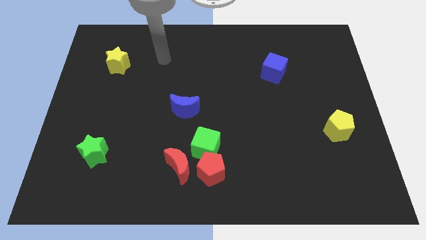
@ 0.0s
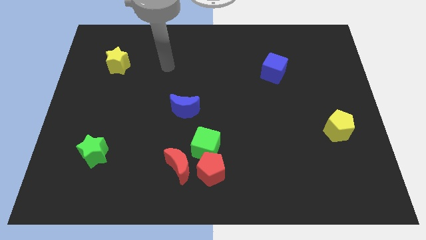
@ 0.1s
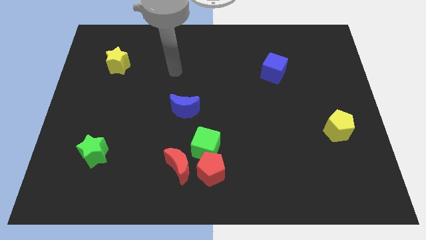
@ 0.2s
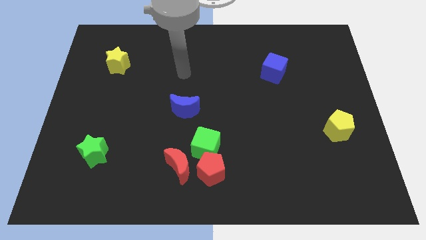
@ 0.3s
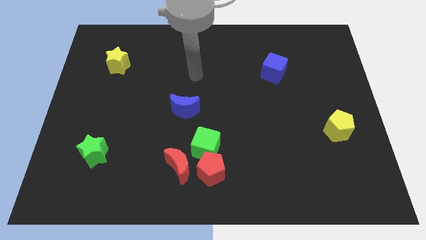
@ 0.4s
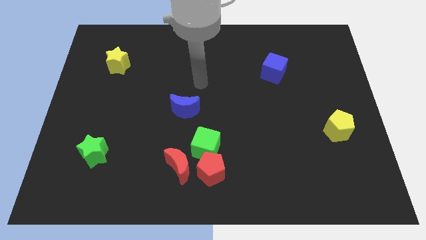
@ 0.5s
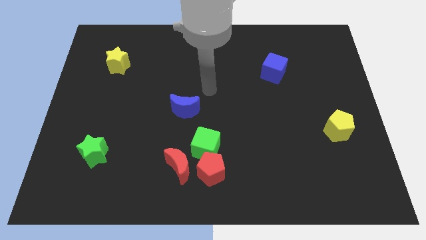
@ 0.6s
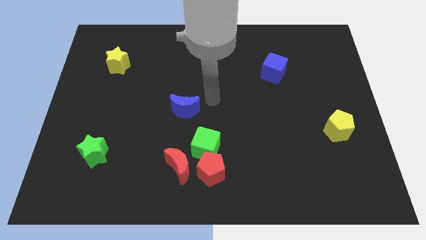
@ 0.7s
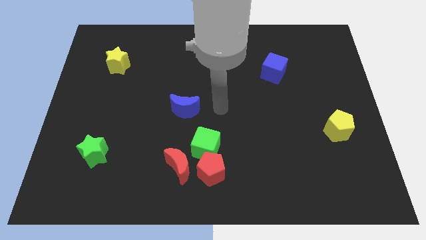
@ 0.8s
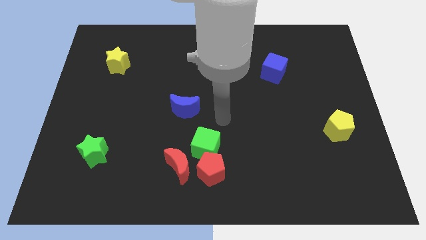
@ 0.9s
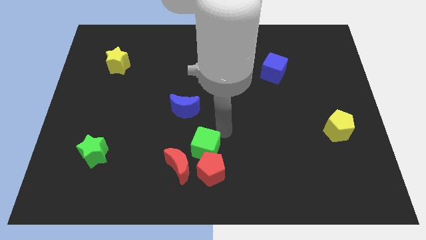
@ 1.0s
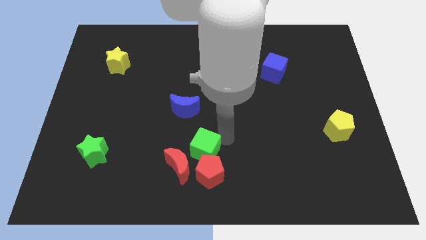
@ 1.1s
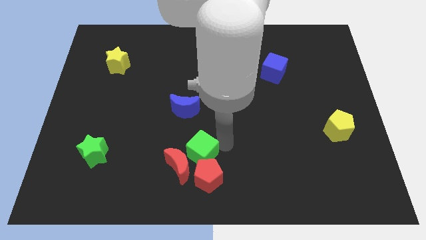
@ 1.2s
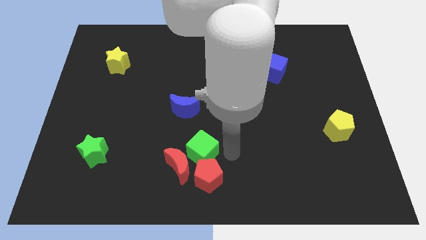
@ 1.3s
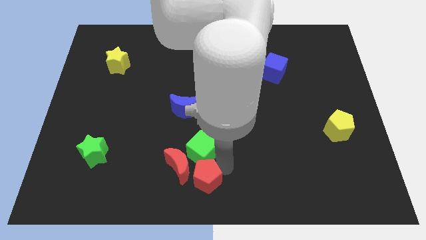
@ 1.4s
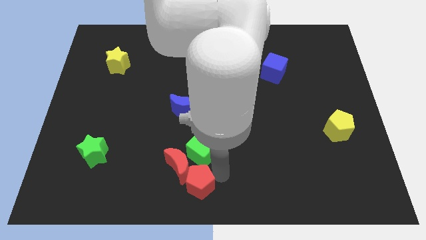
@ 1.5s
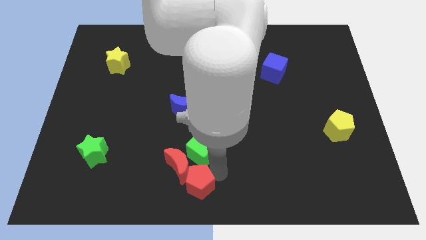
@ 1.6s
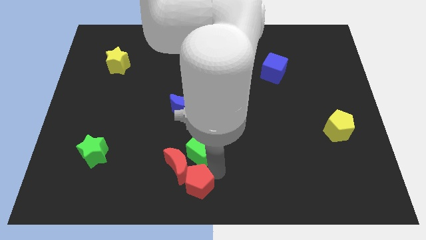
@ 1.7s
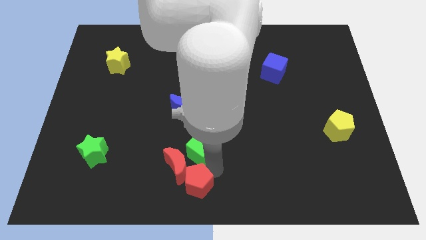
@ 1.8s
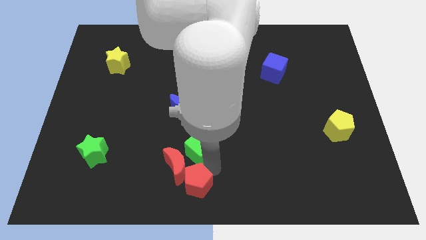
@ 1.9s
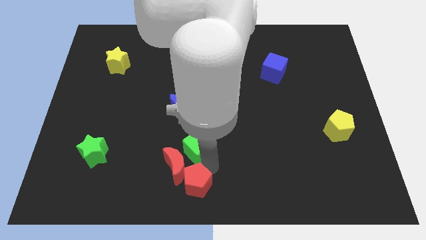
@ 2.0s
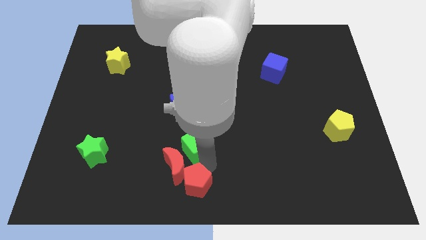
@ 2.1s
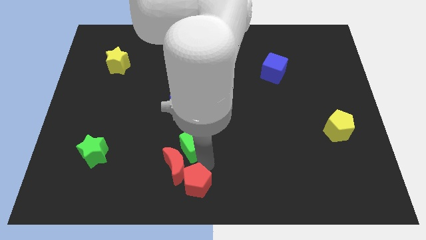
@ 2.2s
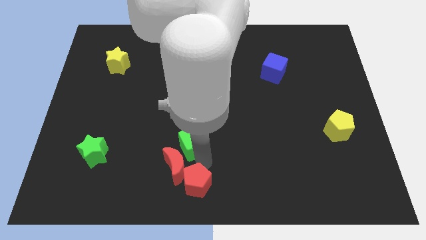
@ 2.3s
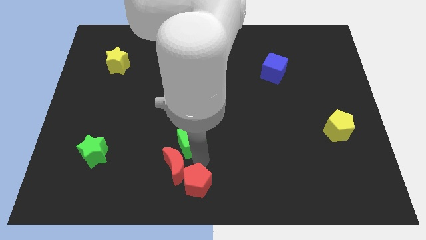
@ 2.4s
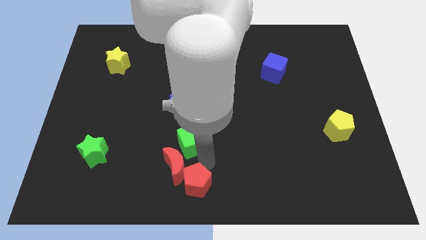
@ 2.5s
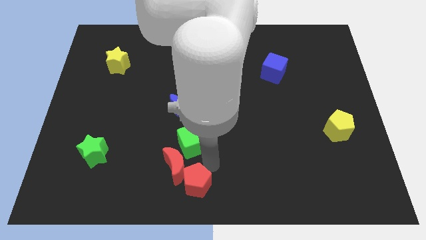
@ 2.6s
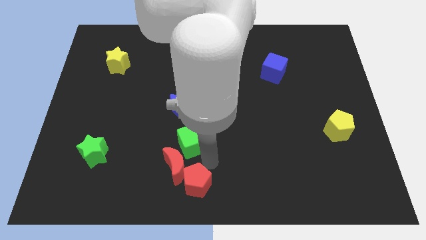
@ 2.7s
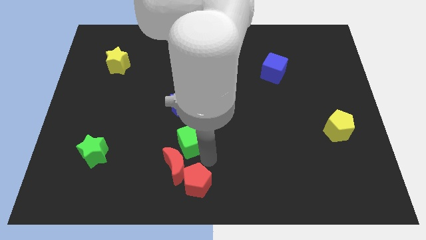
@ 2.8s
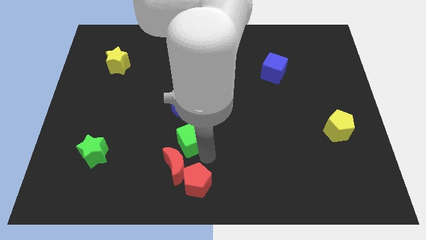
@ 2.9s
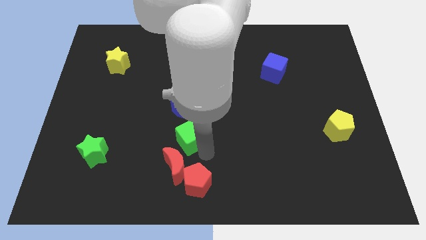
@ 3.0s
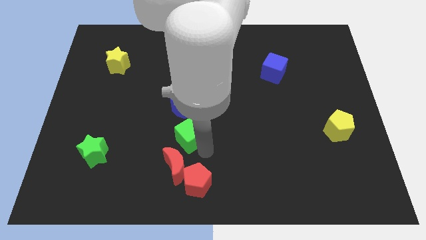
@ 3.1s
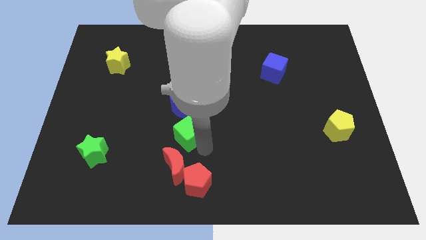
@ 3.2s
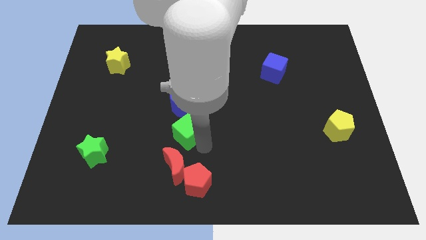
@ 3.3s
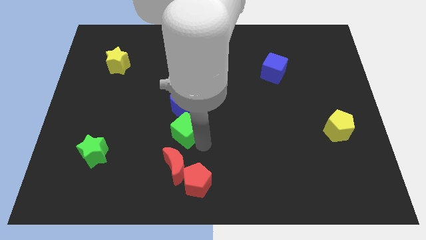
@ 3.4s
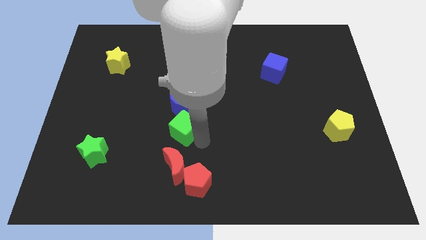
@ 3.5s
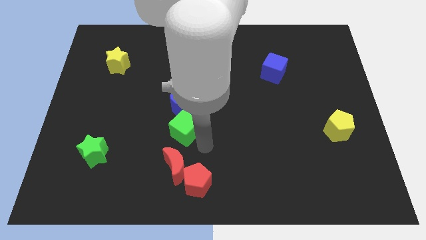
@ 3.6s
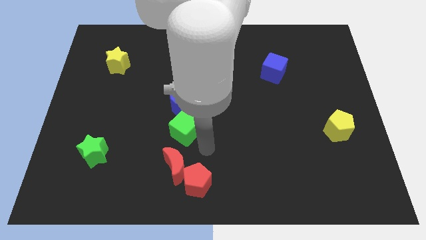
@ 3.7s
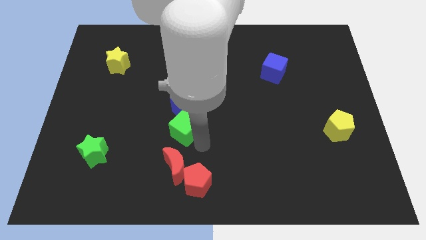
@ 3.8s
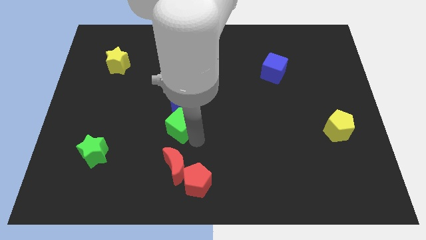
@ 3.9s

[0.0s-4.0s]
slide the green cube a little bit up and to the left

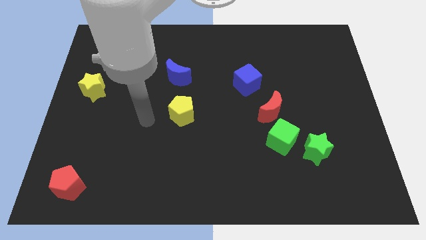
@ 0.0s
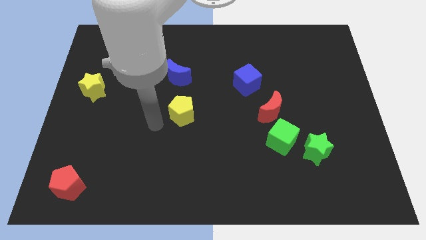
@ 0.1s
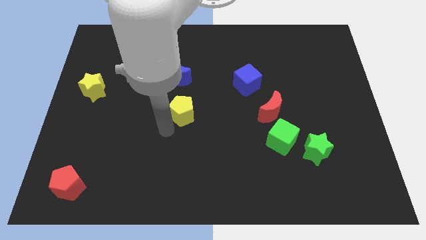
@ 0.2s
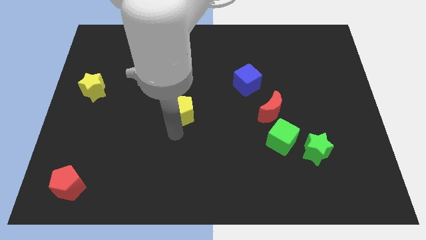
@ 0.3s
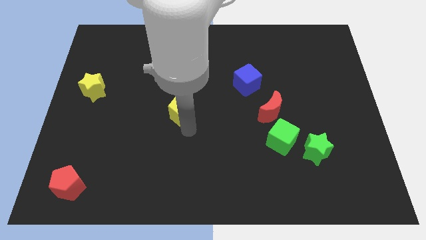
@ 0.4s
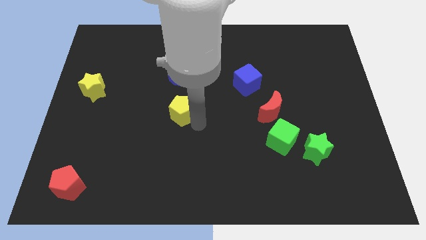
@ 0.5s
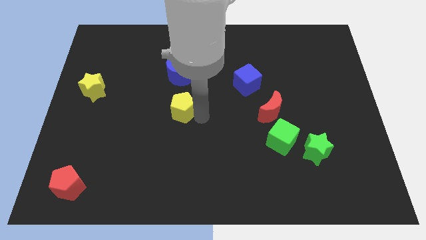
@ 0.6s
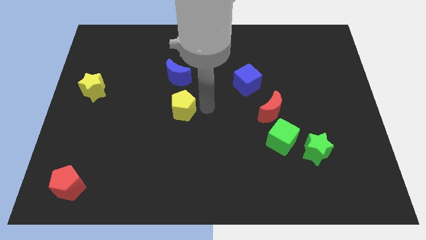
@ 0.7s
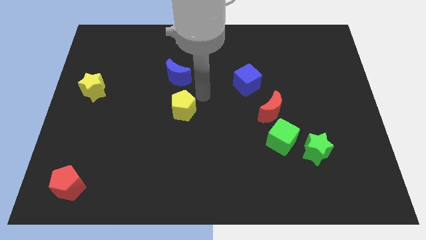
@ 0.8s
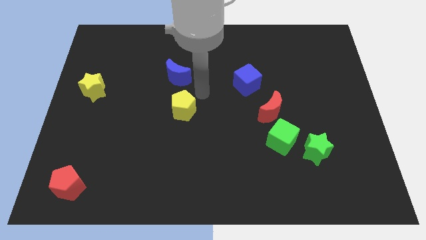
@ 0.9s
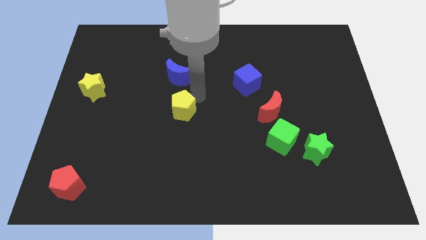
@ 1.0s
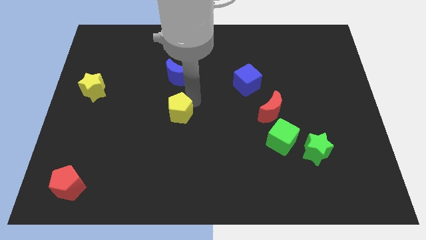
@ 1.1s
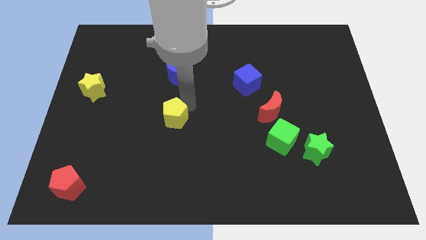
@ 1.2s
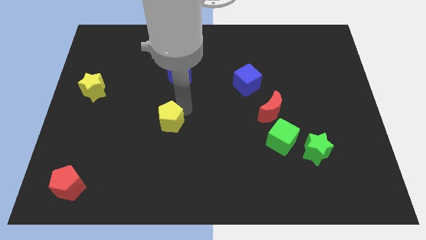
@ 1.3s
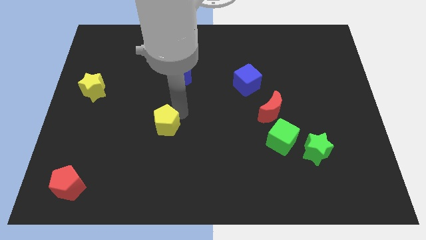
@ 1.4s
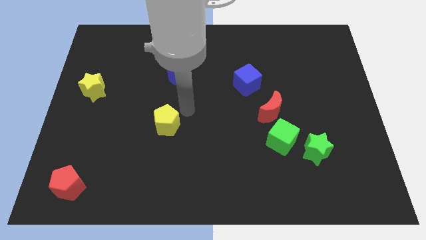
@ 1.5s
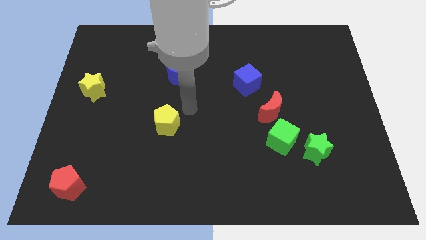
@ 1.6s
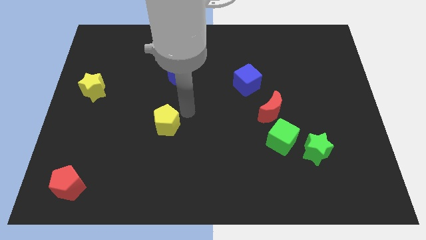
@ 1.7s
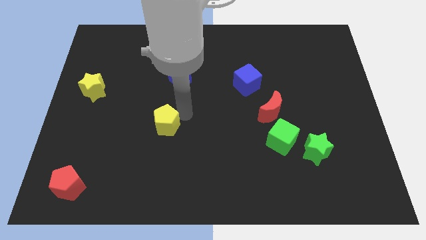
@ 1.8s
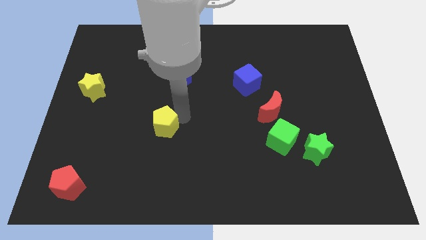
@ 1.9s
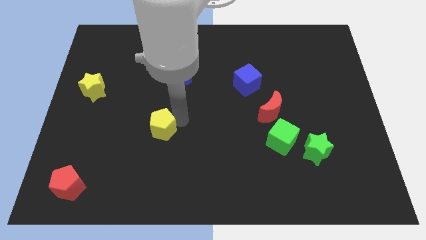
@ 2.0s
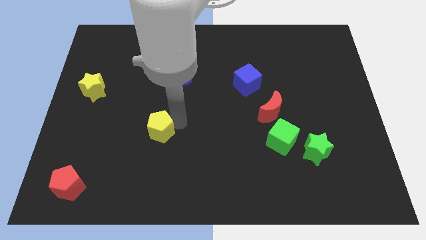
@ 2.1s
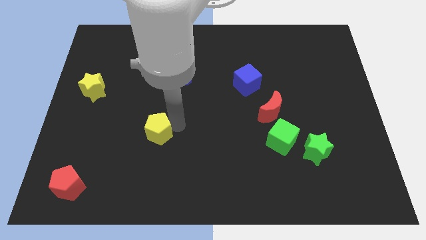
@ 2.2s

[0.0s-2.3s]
slide the yellow pentagon a little bit downwards and to the left

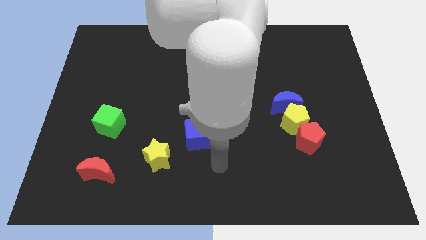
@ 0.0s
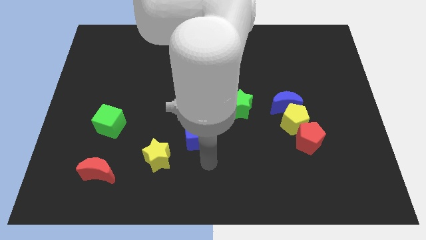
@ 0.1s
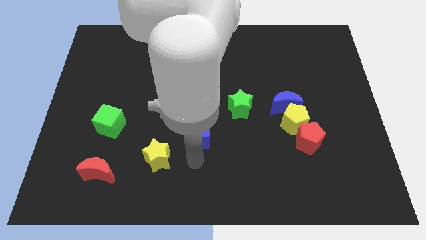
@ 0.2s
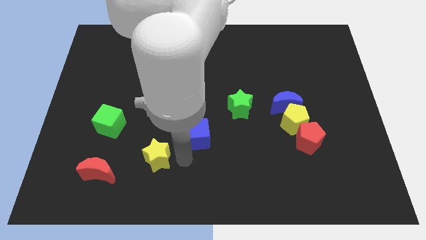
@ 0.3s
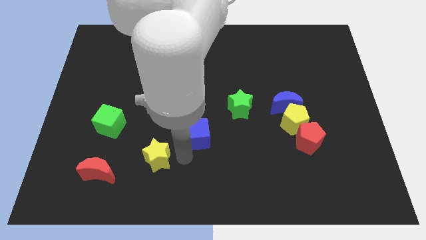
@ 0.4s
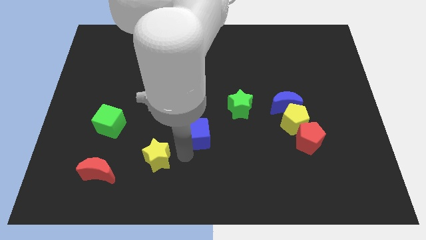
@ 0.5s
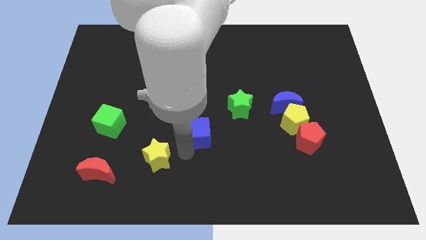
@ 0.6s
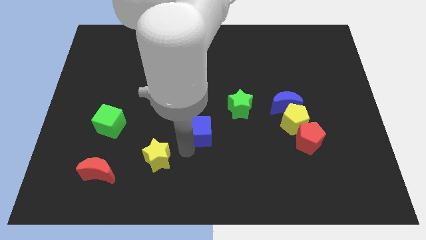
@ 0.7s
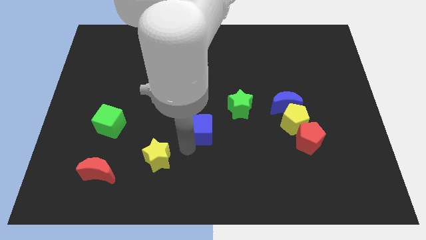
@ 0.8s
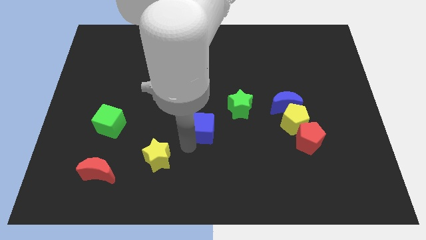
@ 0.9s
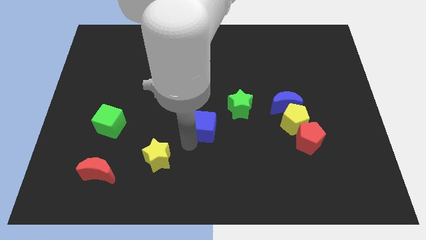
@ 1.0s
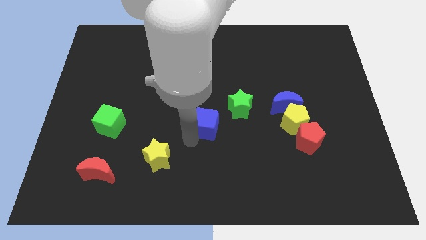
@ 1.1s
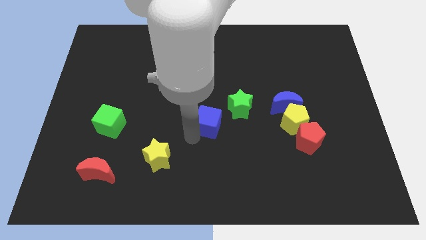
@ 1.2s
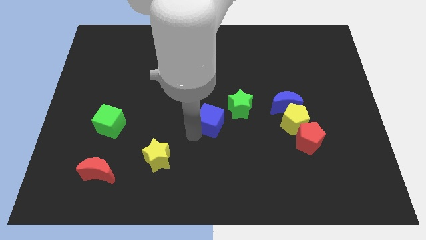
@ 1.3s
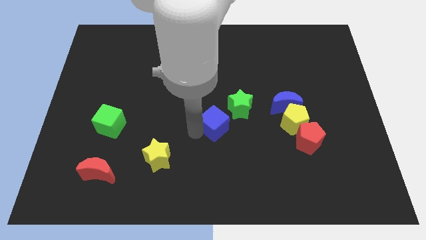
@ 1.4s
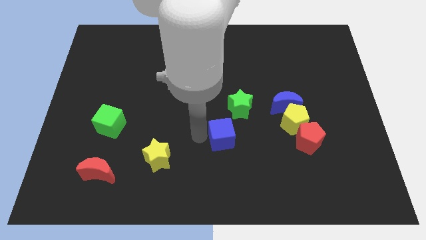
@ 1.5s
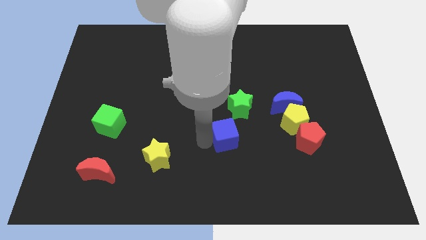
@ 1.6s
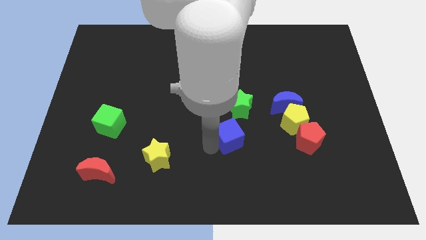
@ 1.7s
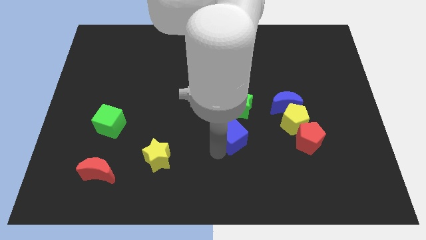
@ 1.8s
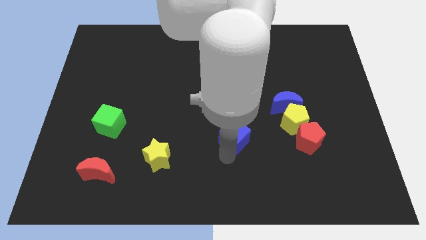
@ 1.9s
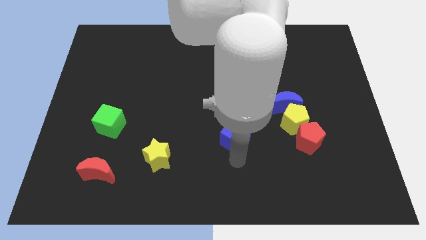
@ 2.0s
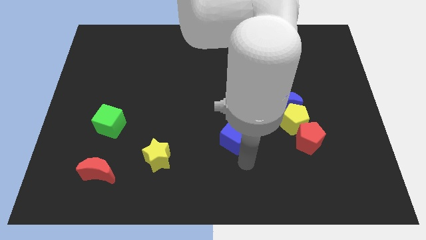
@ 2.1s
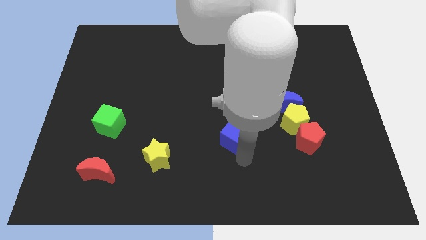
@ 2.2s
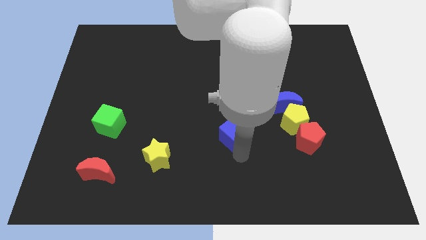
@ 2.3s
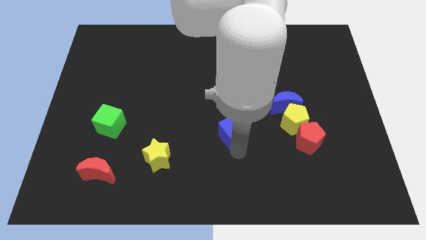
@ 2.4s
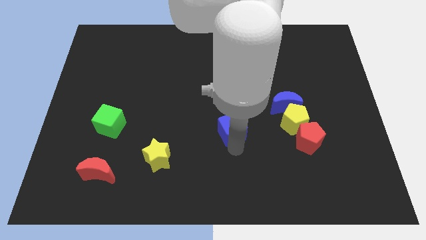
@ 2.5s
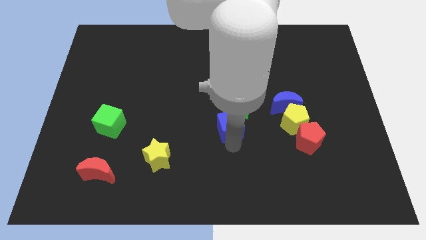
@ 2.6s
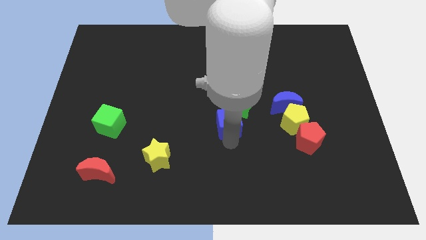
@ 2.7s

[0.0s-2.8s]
move the blue cube diagonally up and to the right somewhat
